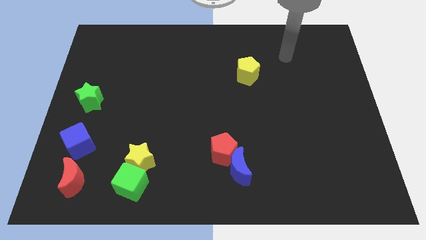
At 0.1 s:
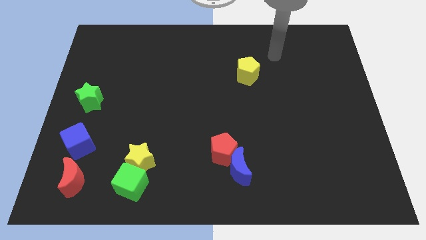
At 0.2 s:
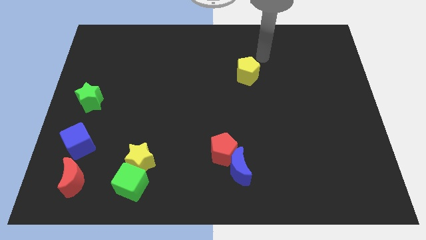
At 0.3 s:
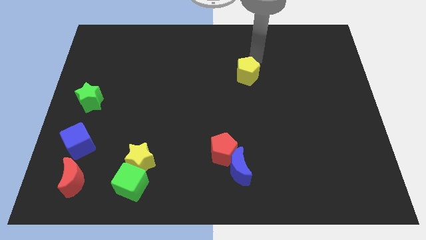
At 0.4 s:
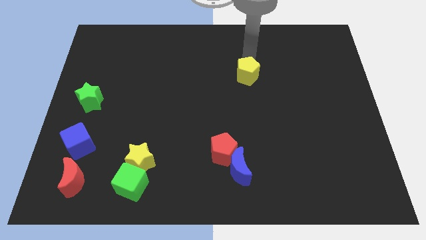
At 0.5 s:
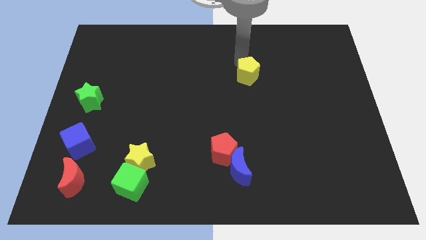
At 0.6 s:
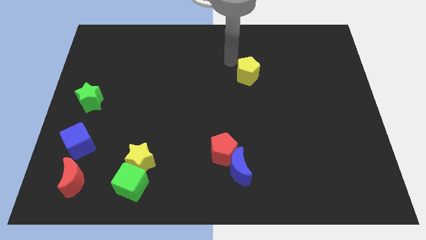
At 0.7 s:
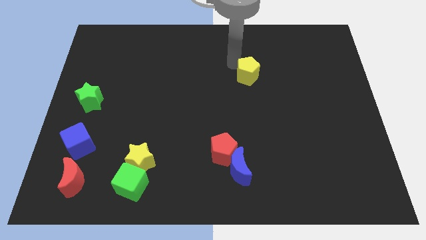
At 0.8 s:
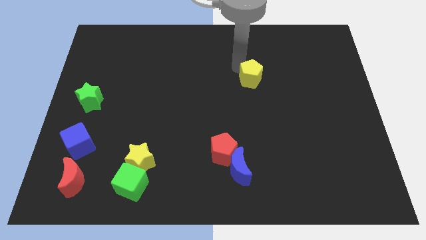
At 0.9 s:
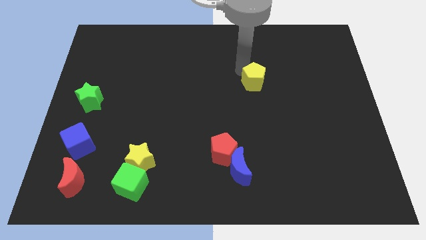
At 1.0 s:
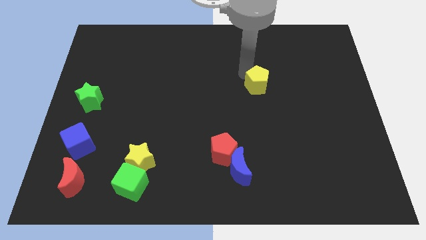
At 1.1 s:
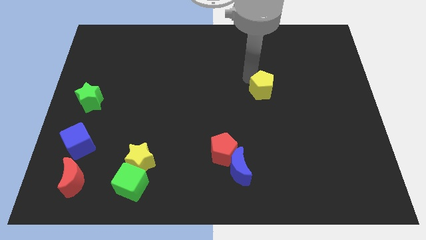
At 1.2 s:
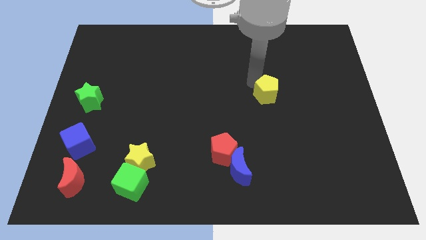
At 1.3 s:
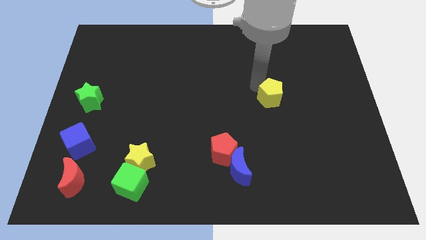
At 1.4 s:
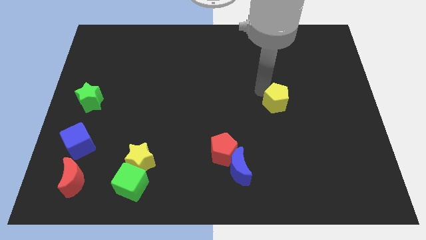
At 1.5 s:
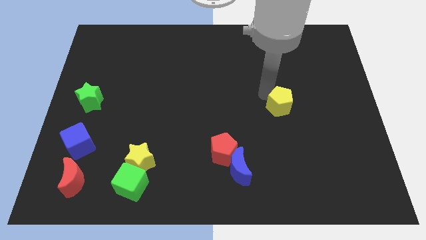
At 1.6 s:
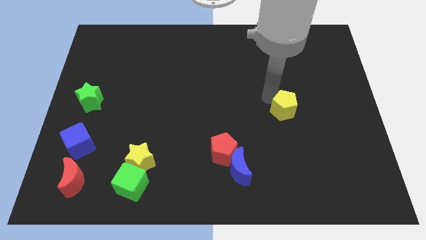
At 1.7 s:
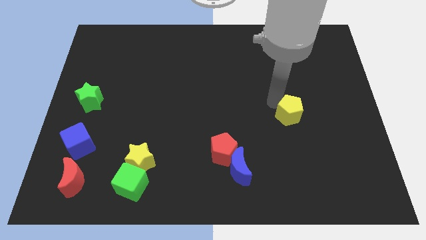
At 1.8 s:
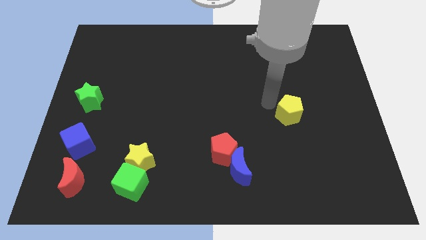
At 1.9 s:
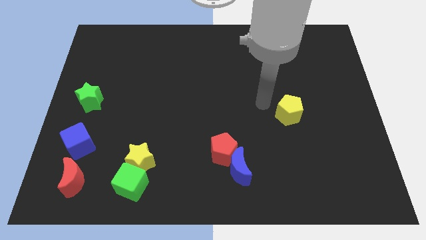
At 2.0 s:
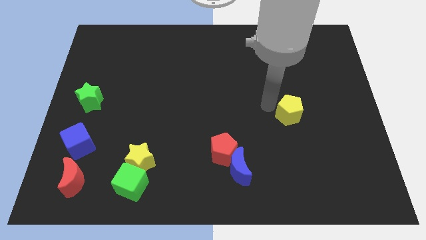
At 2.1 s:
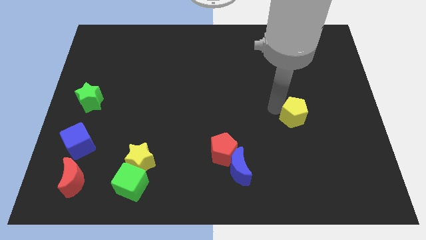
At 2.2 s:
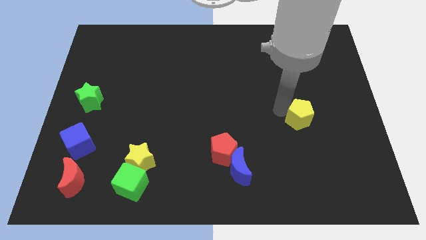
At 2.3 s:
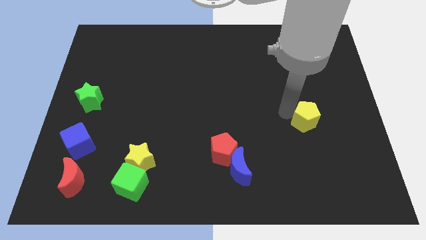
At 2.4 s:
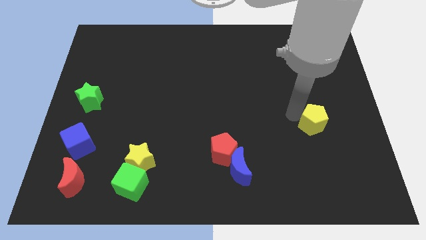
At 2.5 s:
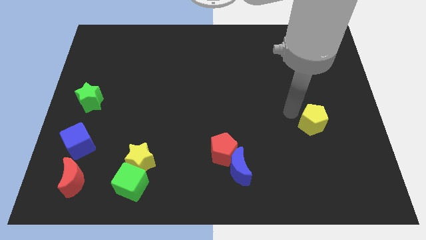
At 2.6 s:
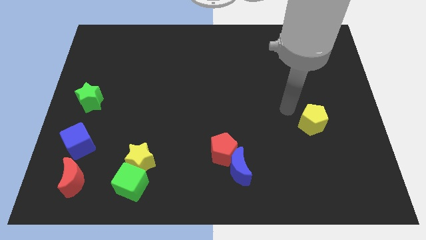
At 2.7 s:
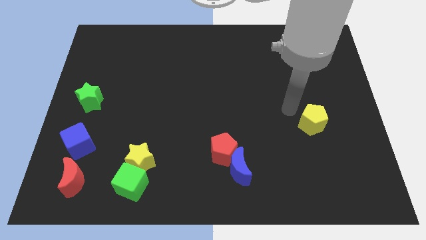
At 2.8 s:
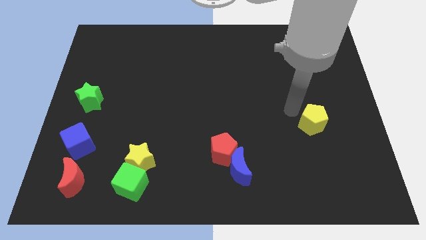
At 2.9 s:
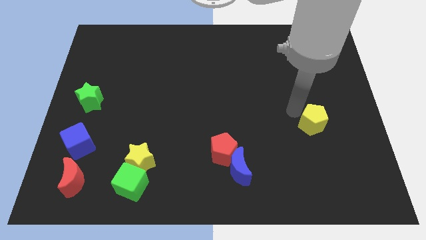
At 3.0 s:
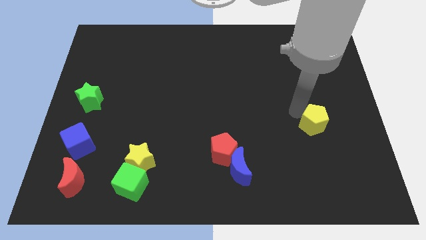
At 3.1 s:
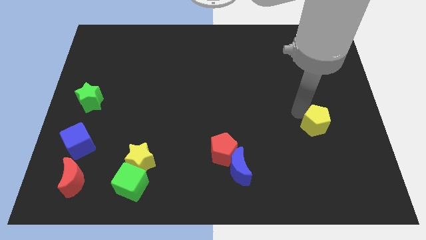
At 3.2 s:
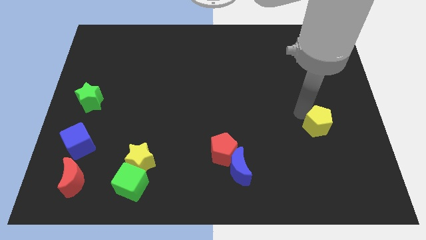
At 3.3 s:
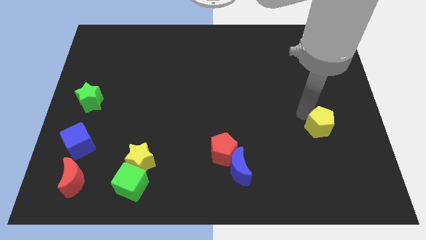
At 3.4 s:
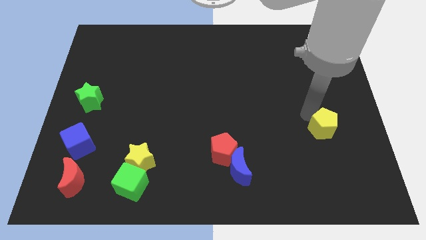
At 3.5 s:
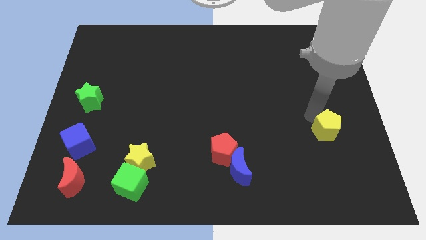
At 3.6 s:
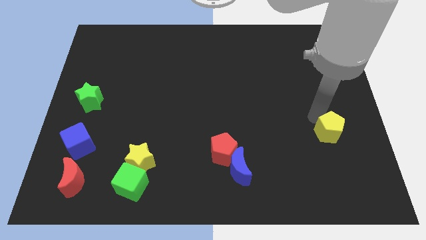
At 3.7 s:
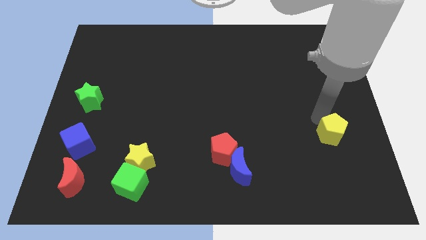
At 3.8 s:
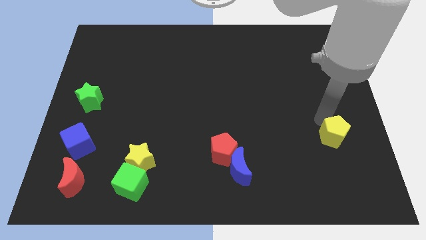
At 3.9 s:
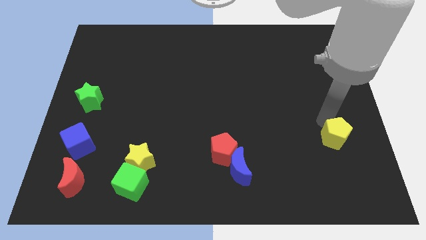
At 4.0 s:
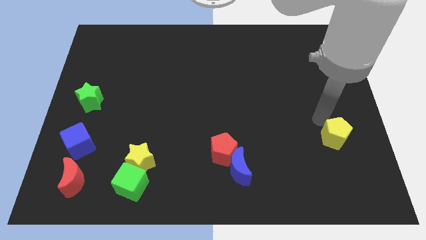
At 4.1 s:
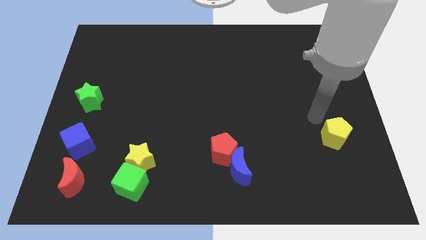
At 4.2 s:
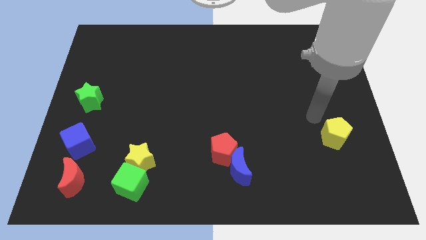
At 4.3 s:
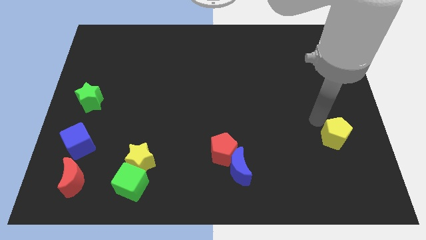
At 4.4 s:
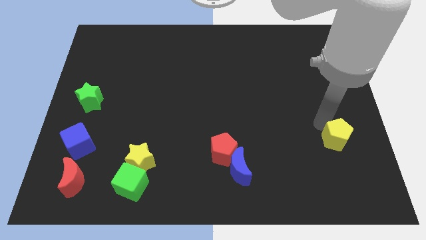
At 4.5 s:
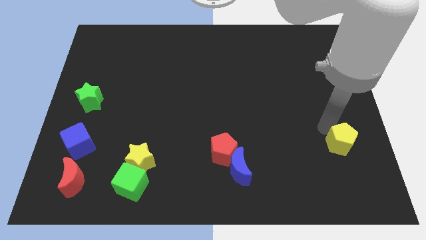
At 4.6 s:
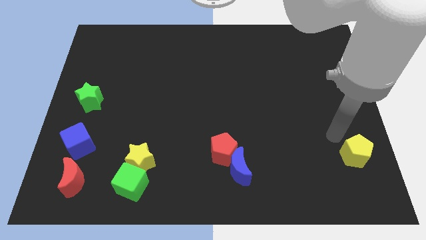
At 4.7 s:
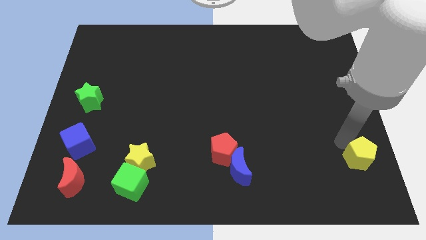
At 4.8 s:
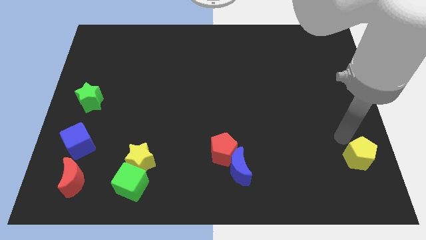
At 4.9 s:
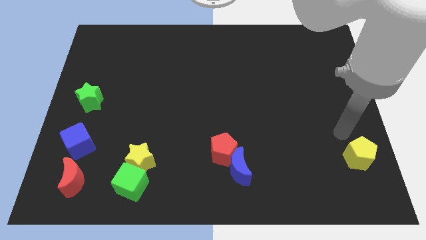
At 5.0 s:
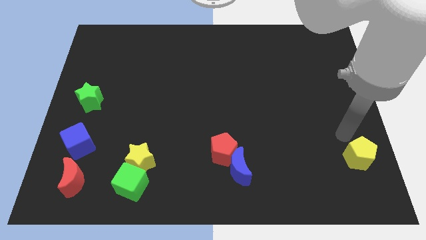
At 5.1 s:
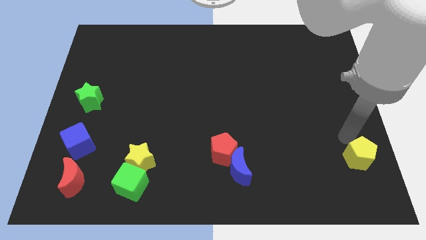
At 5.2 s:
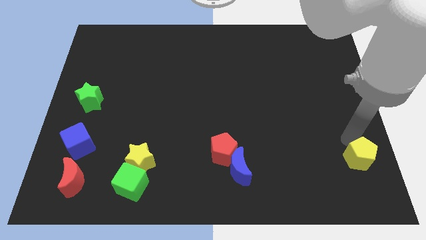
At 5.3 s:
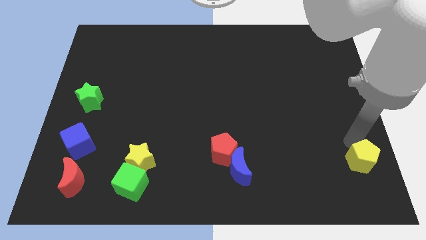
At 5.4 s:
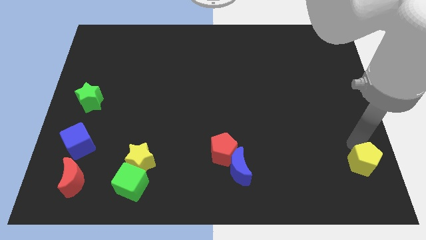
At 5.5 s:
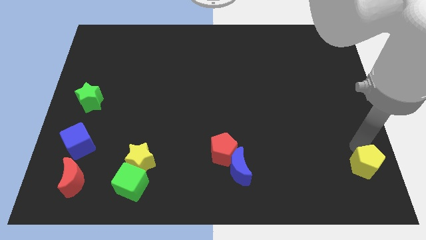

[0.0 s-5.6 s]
push the yellow pentagon to the bottom right

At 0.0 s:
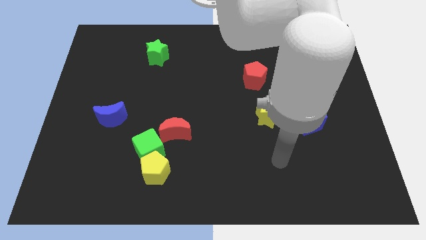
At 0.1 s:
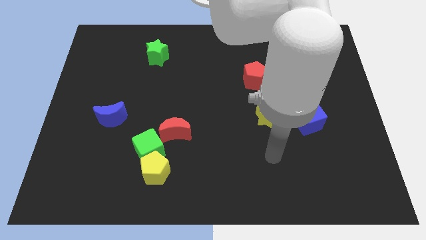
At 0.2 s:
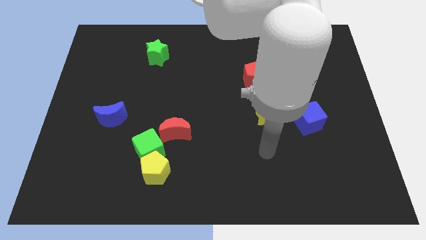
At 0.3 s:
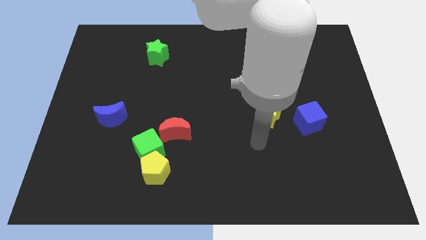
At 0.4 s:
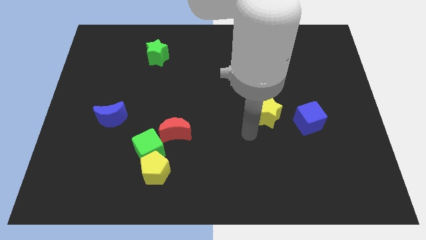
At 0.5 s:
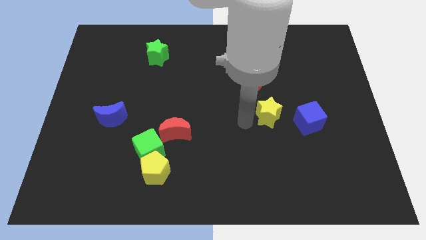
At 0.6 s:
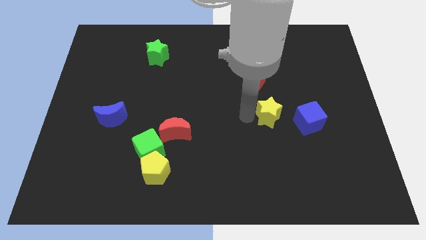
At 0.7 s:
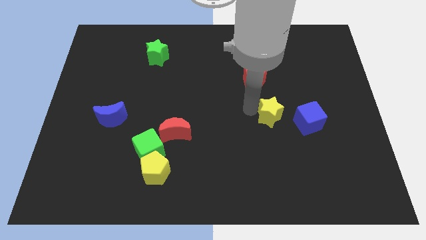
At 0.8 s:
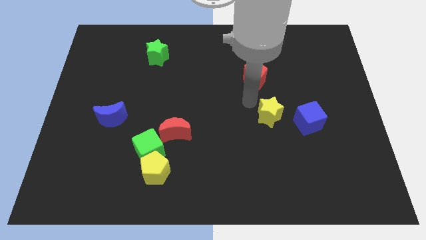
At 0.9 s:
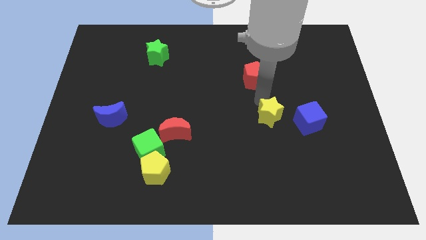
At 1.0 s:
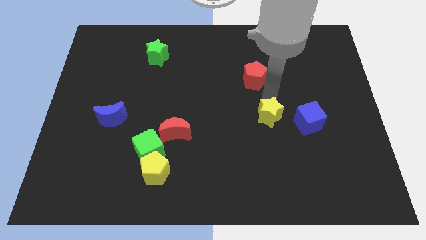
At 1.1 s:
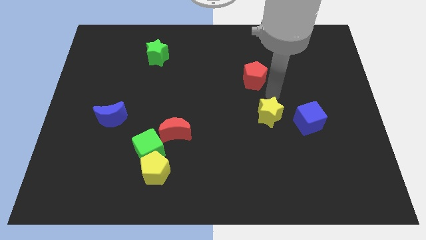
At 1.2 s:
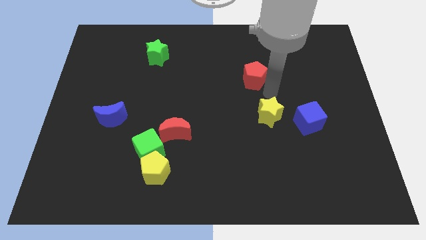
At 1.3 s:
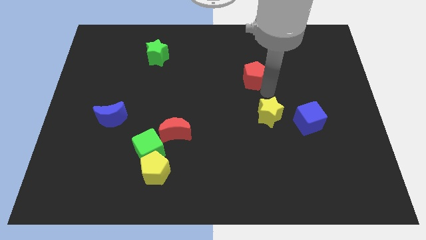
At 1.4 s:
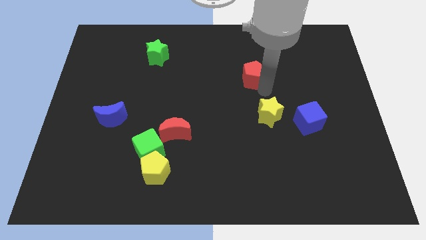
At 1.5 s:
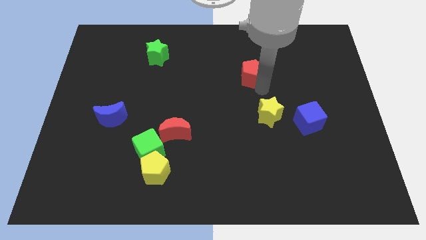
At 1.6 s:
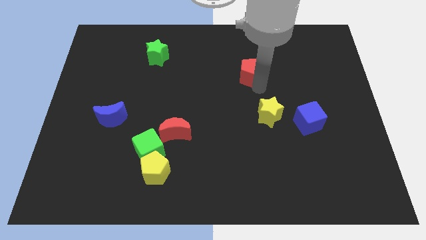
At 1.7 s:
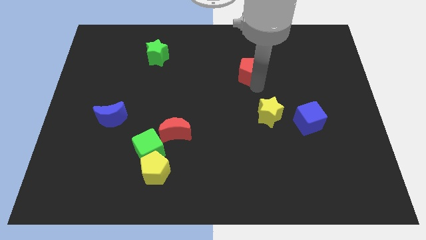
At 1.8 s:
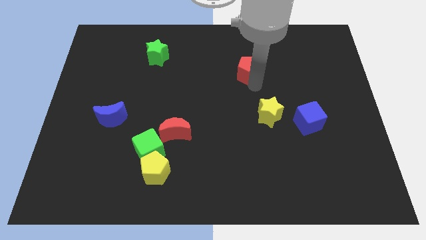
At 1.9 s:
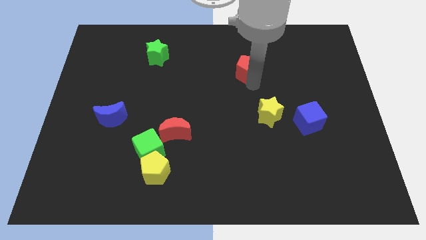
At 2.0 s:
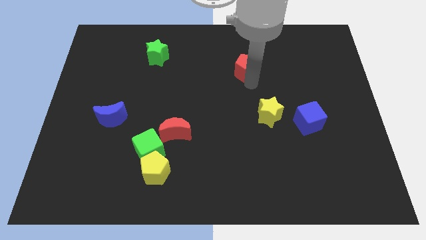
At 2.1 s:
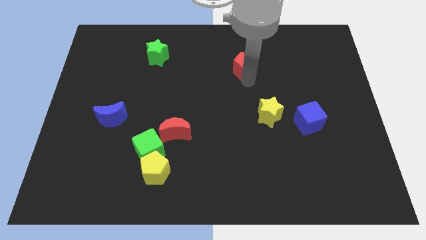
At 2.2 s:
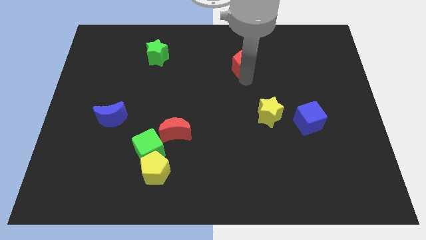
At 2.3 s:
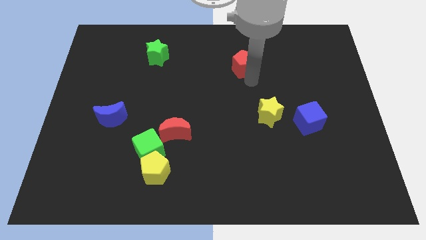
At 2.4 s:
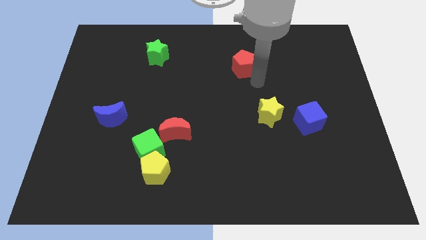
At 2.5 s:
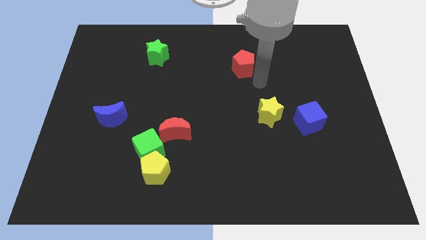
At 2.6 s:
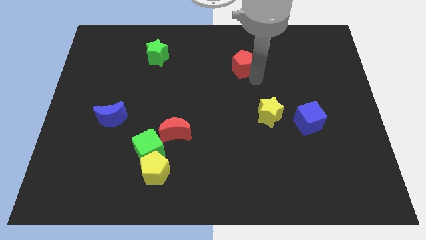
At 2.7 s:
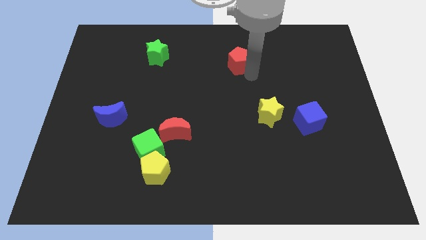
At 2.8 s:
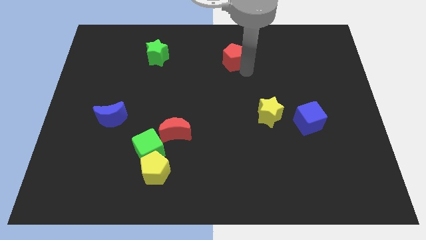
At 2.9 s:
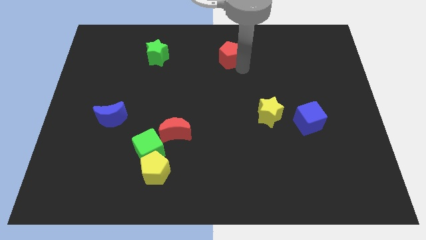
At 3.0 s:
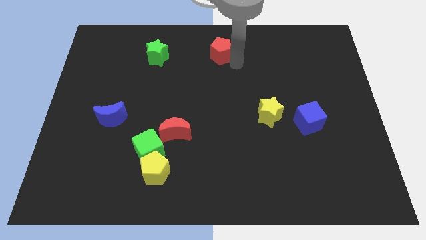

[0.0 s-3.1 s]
move the red pentagon to the top side
